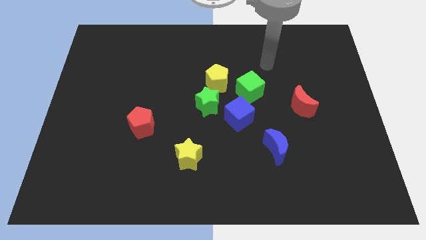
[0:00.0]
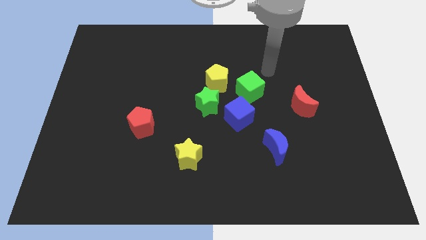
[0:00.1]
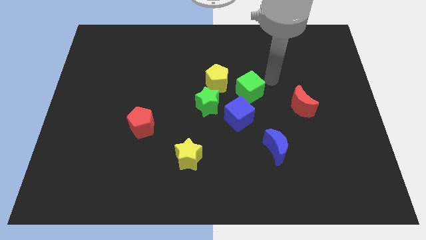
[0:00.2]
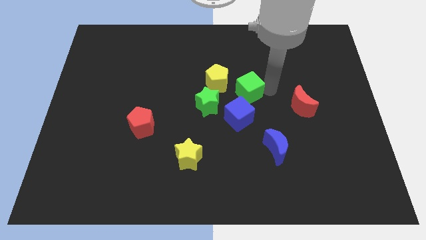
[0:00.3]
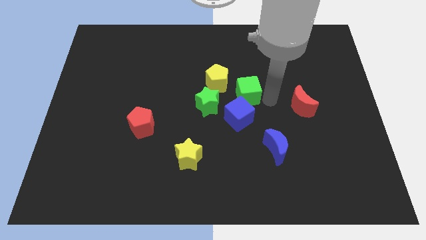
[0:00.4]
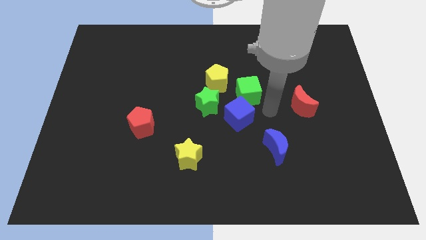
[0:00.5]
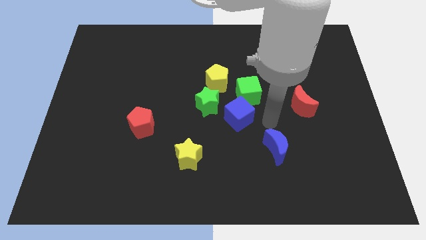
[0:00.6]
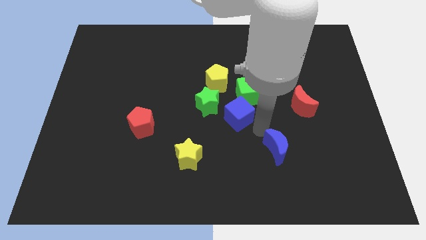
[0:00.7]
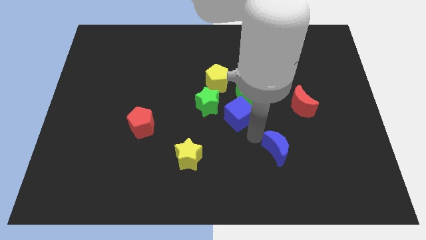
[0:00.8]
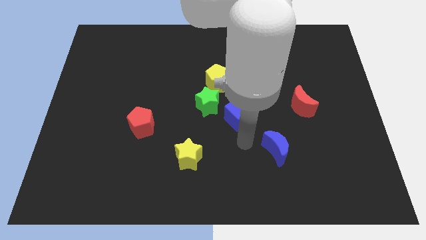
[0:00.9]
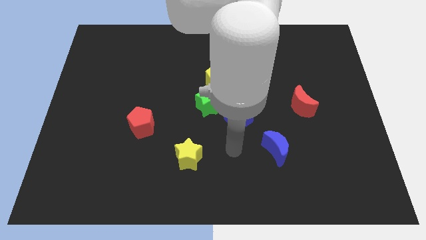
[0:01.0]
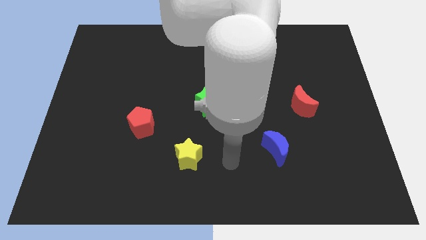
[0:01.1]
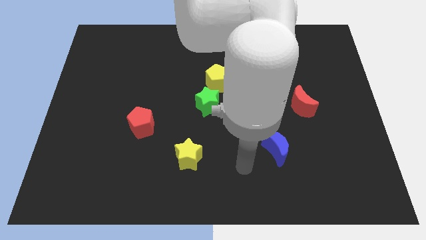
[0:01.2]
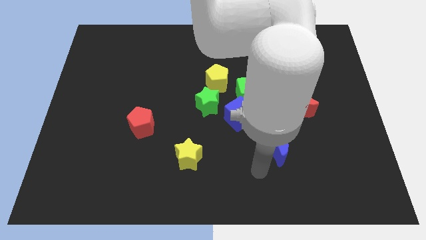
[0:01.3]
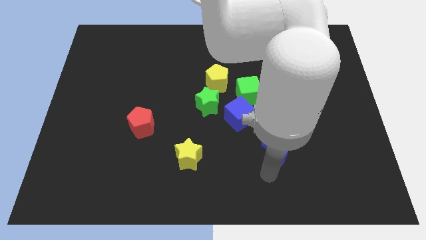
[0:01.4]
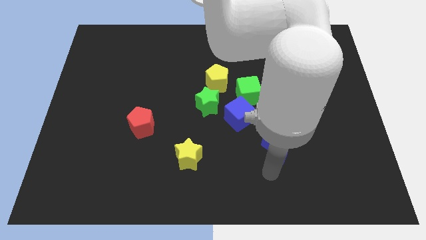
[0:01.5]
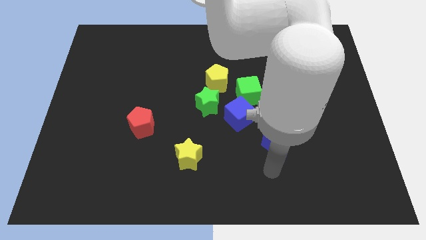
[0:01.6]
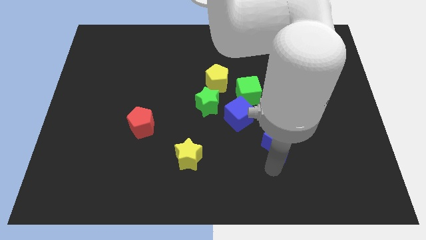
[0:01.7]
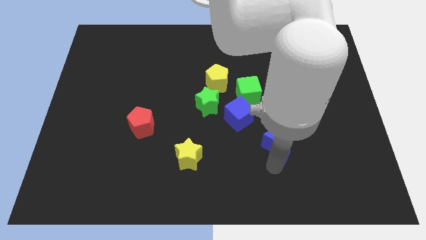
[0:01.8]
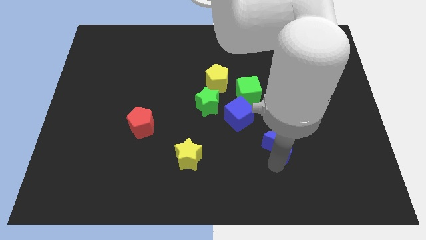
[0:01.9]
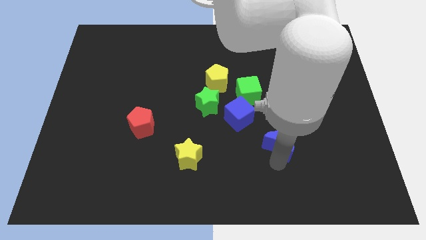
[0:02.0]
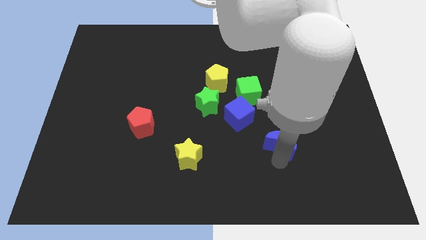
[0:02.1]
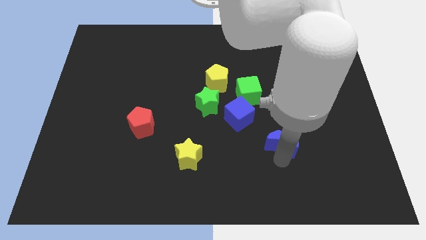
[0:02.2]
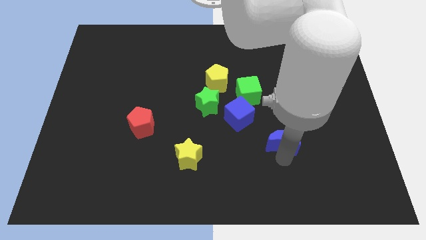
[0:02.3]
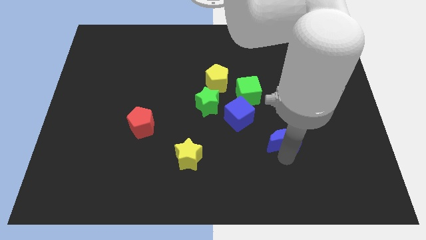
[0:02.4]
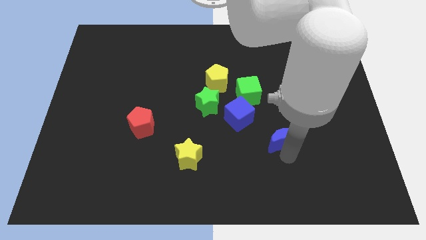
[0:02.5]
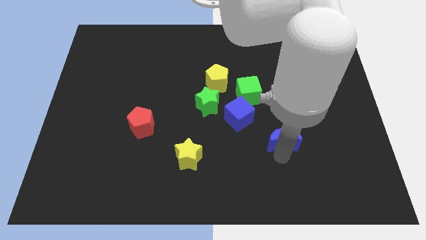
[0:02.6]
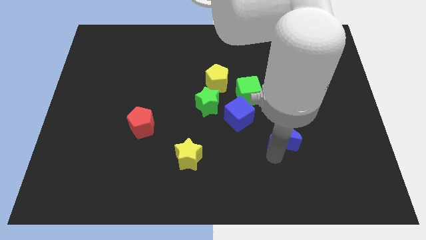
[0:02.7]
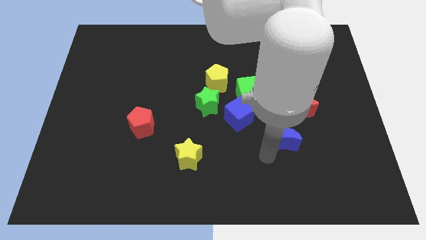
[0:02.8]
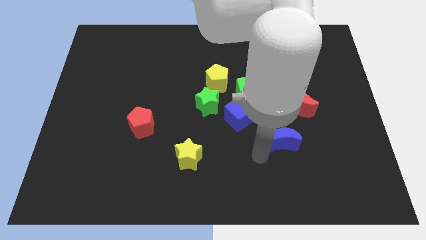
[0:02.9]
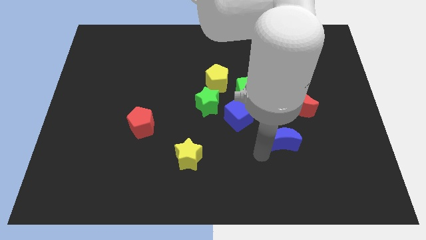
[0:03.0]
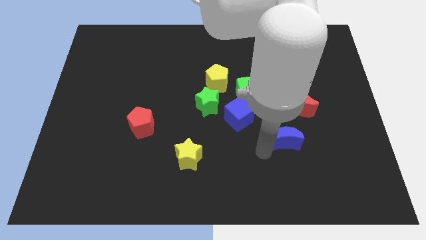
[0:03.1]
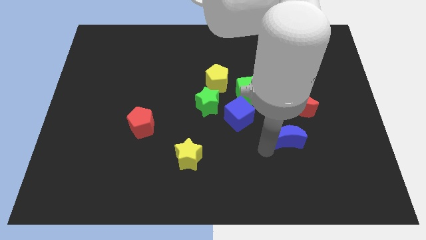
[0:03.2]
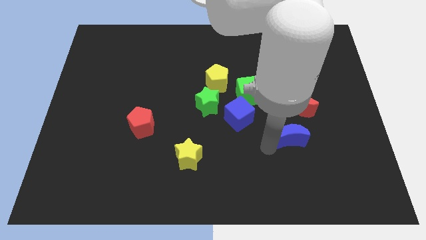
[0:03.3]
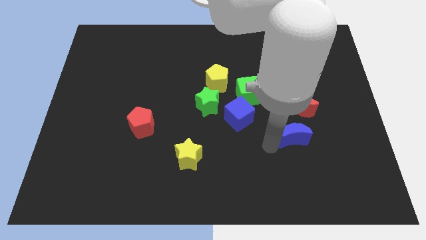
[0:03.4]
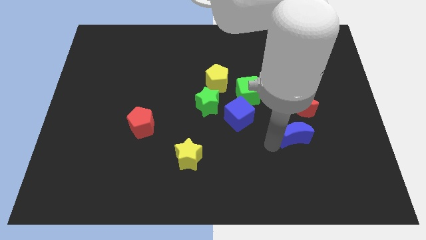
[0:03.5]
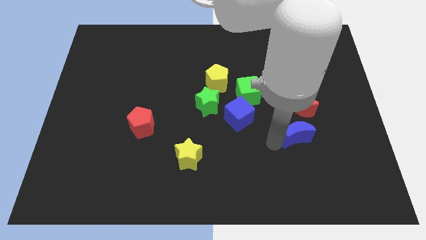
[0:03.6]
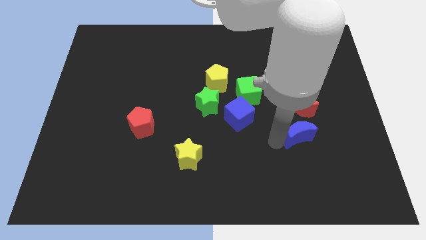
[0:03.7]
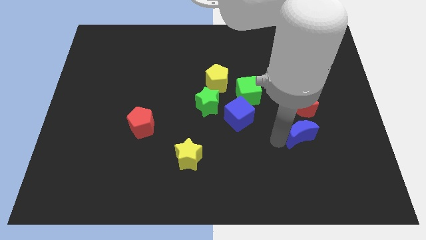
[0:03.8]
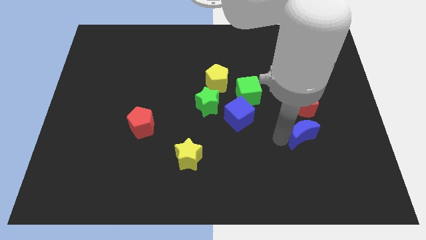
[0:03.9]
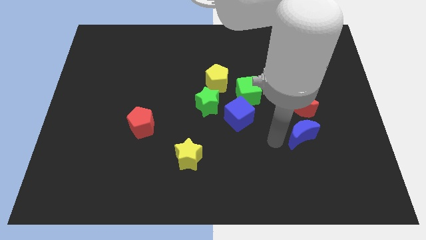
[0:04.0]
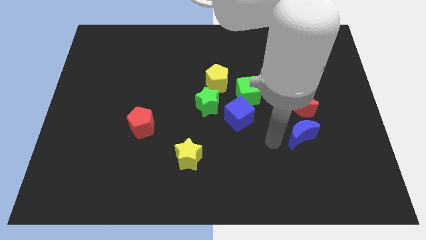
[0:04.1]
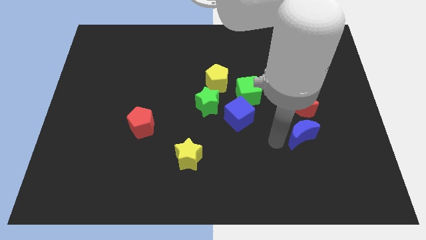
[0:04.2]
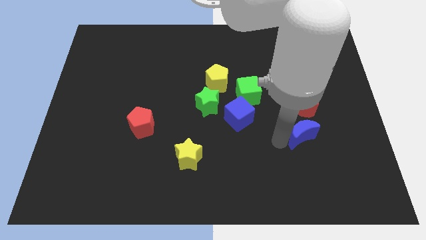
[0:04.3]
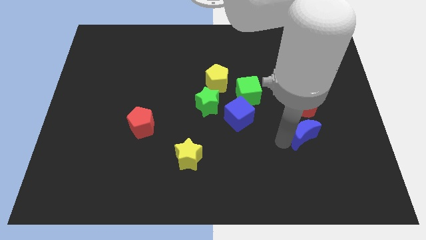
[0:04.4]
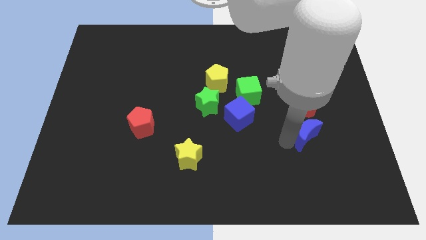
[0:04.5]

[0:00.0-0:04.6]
slide the blue moon a little up and then to the right

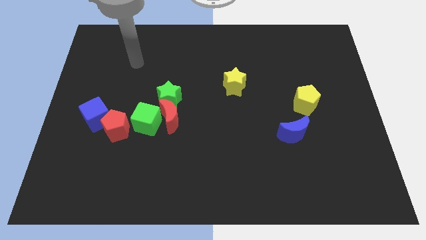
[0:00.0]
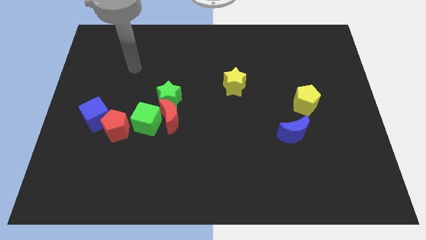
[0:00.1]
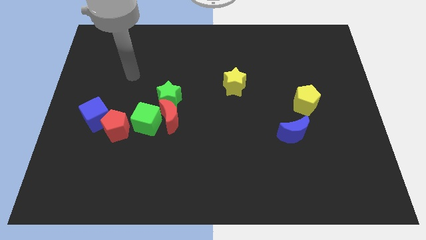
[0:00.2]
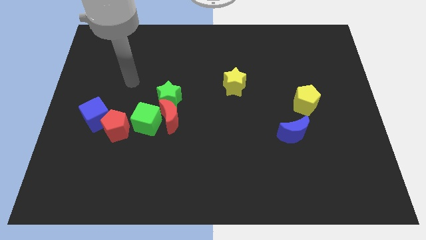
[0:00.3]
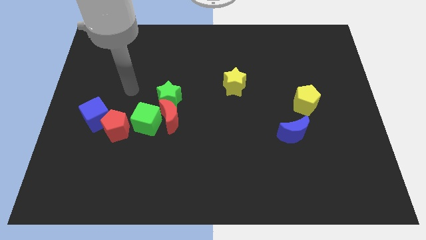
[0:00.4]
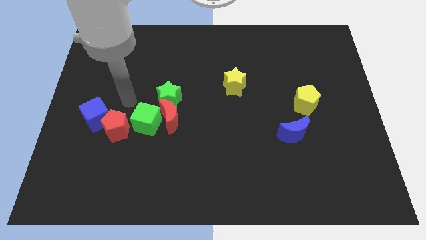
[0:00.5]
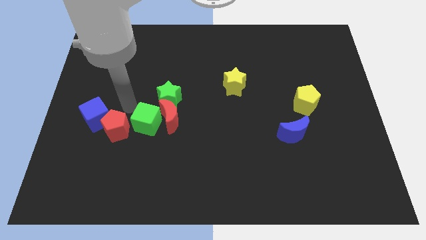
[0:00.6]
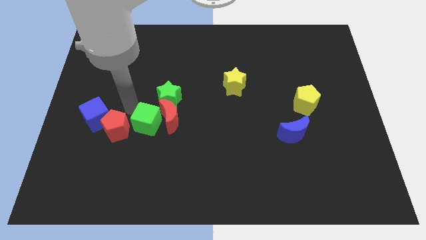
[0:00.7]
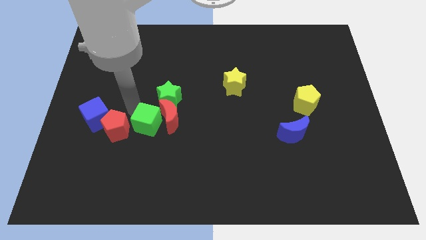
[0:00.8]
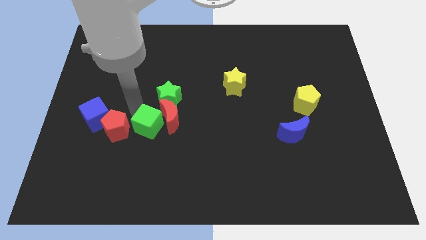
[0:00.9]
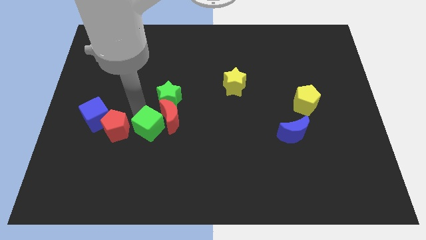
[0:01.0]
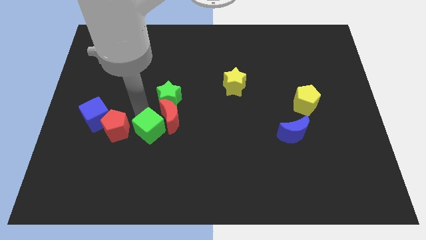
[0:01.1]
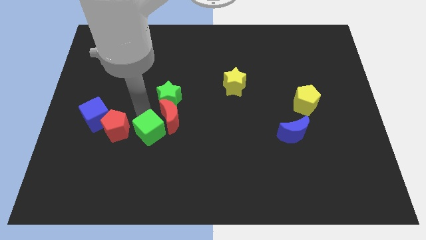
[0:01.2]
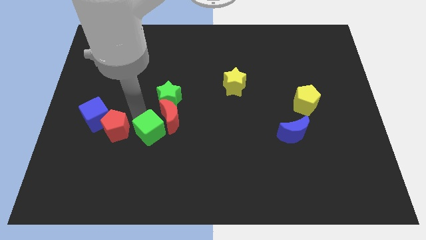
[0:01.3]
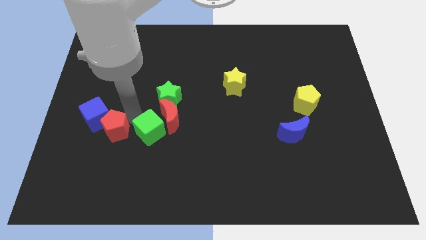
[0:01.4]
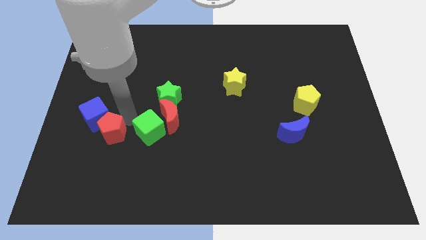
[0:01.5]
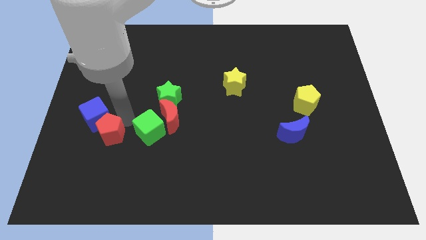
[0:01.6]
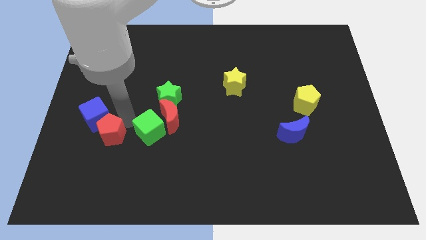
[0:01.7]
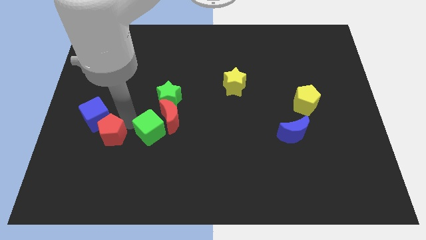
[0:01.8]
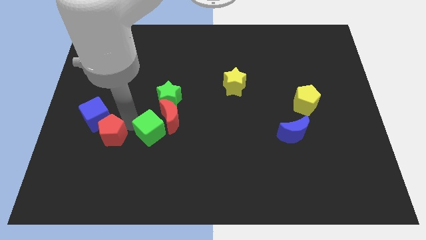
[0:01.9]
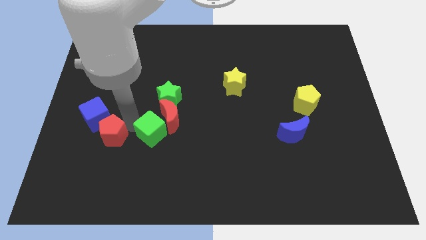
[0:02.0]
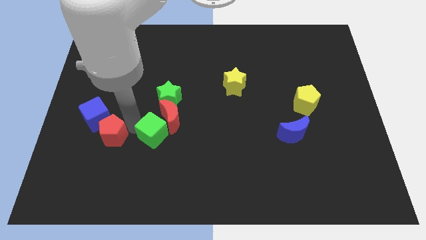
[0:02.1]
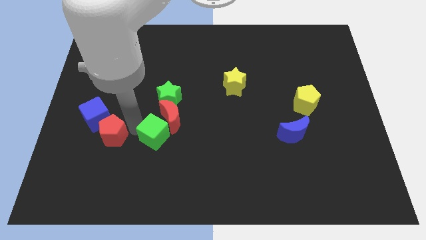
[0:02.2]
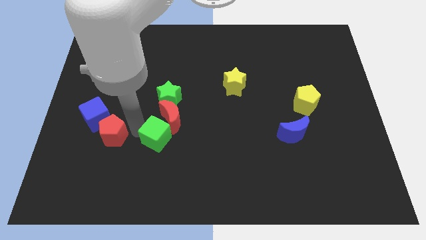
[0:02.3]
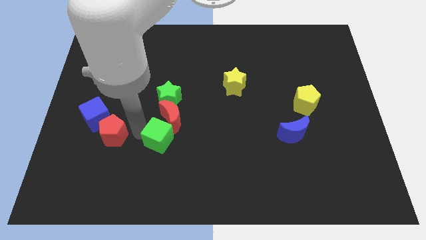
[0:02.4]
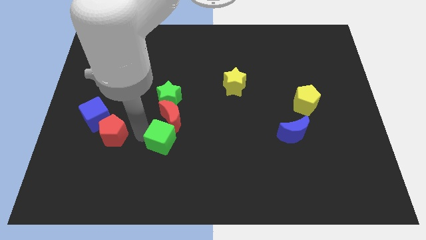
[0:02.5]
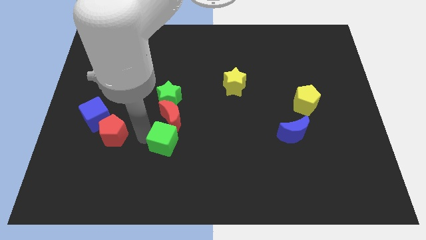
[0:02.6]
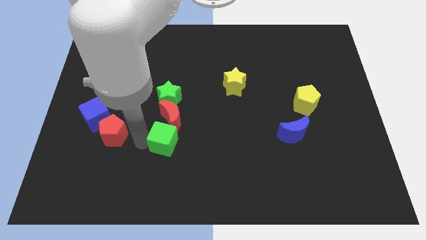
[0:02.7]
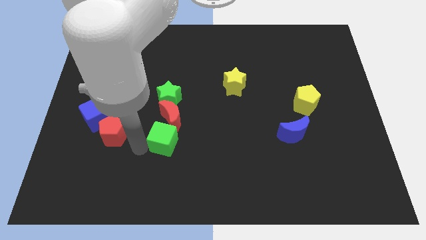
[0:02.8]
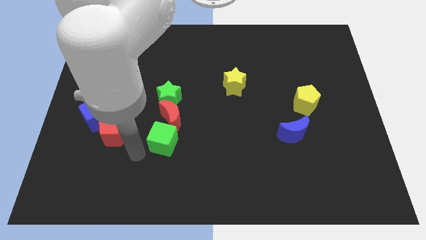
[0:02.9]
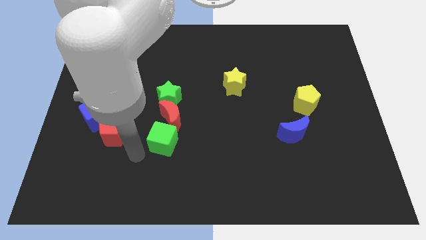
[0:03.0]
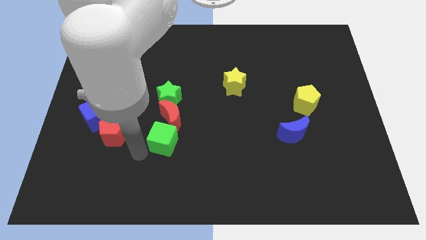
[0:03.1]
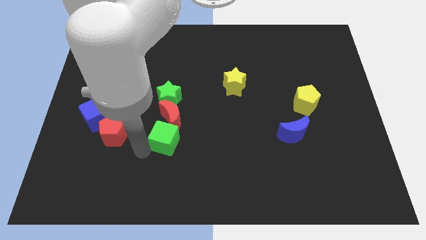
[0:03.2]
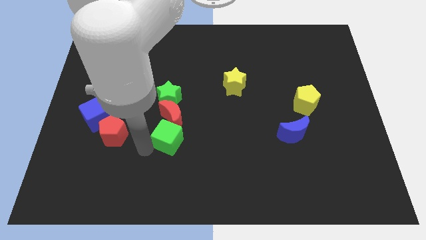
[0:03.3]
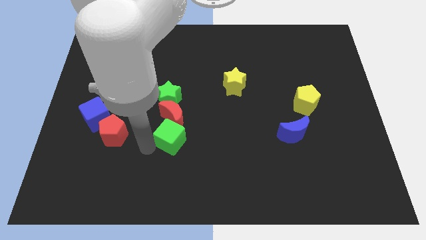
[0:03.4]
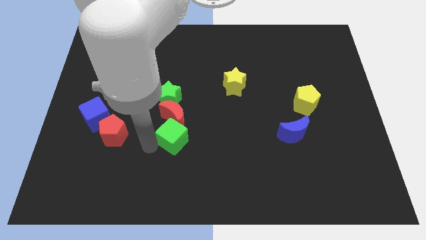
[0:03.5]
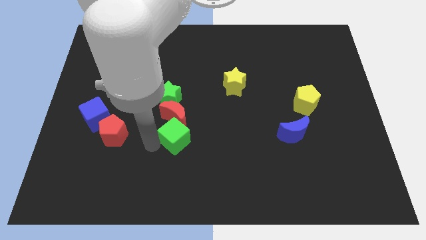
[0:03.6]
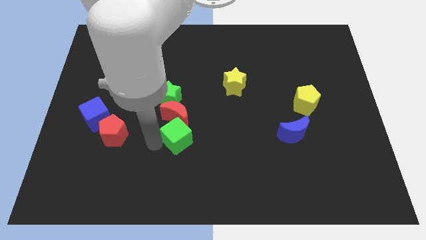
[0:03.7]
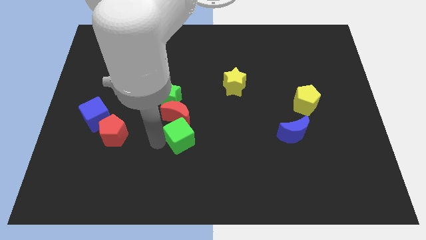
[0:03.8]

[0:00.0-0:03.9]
slide the green cube a bit to the right
